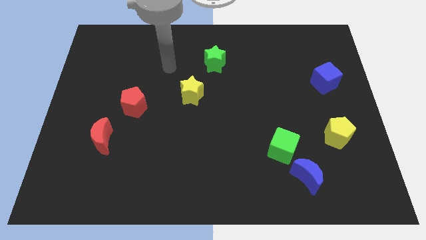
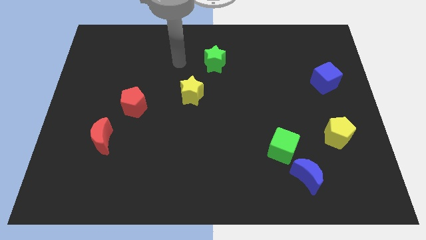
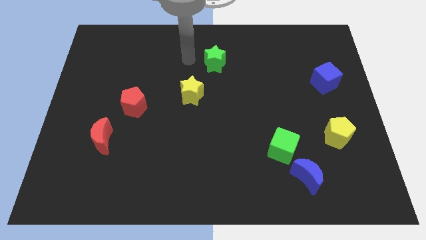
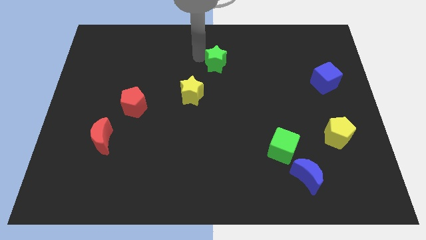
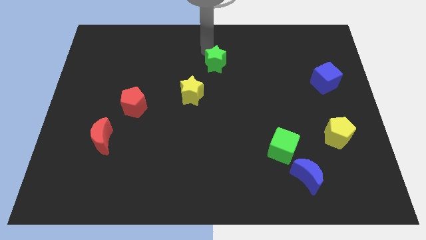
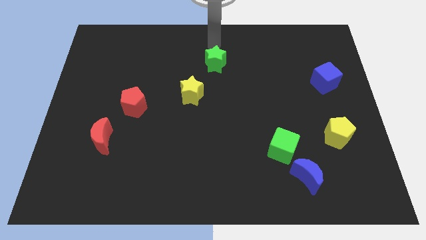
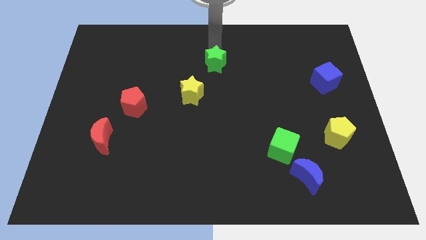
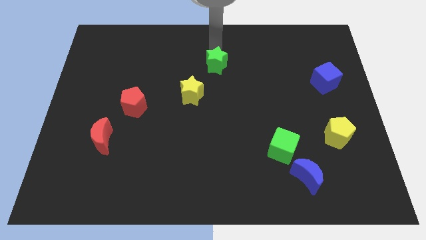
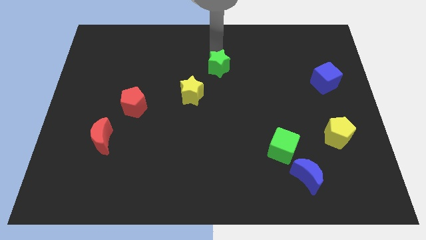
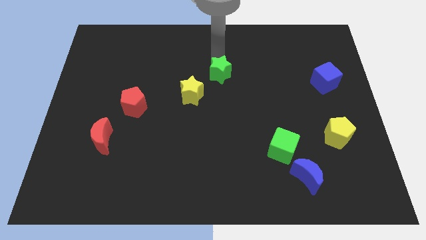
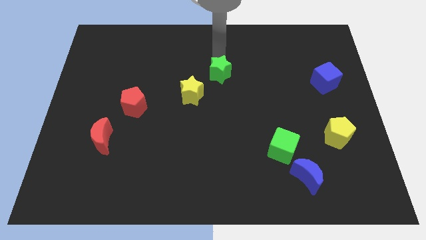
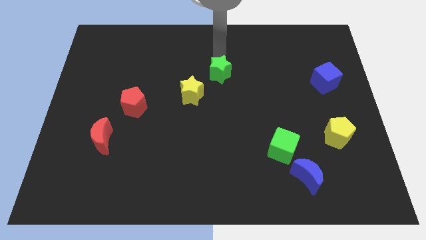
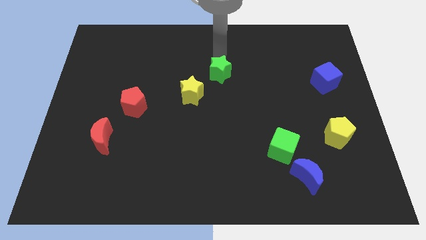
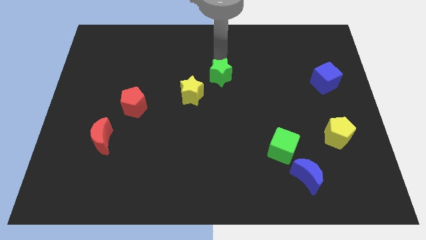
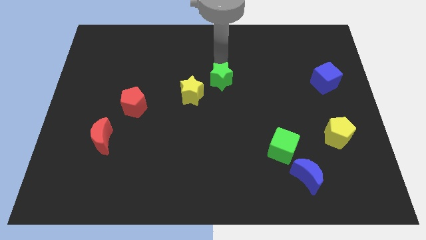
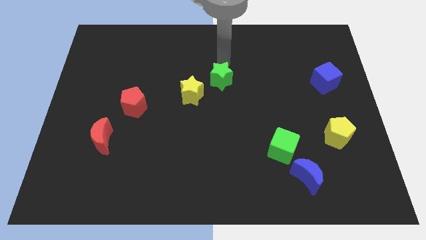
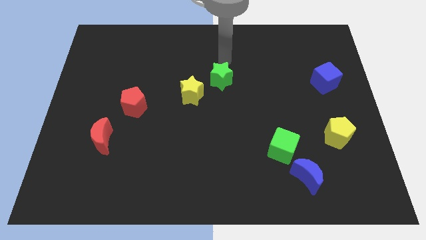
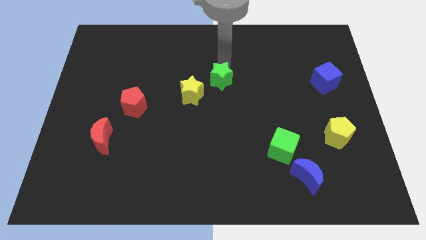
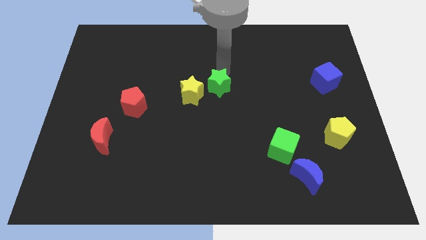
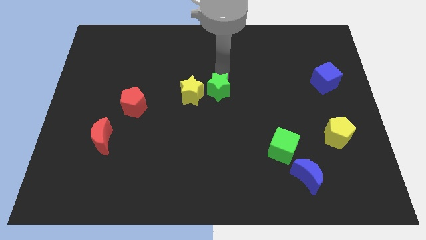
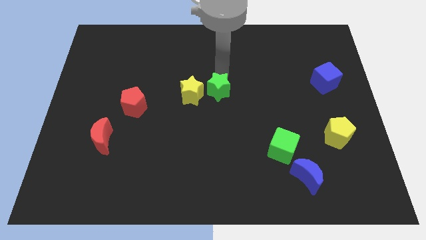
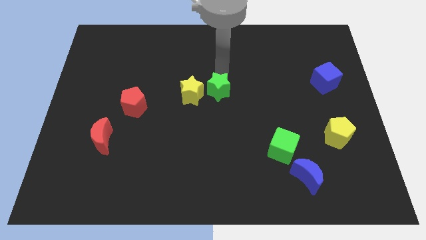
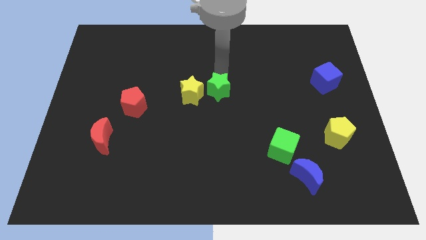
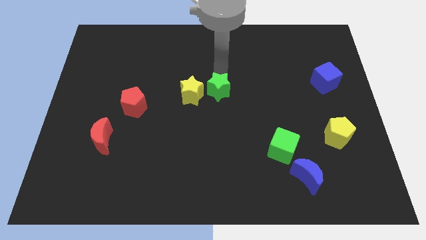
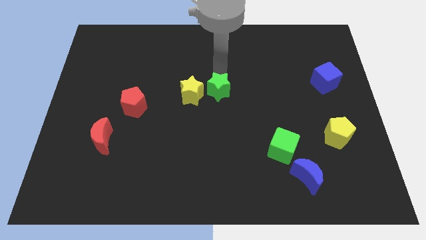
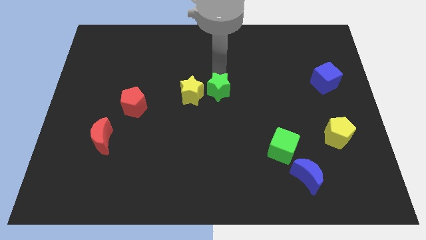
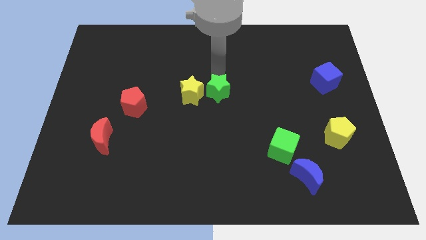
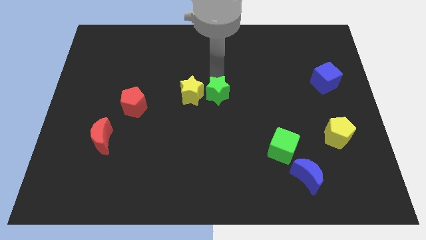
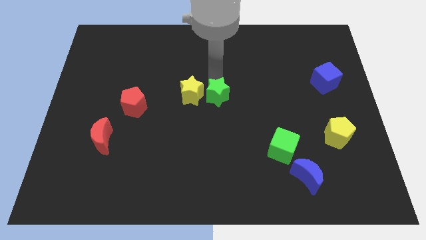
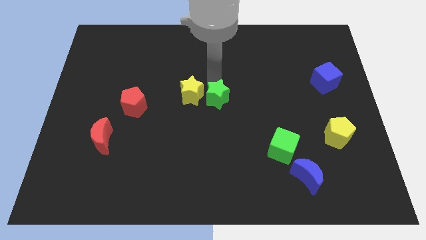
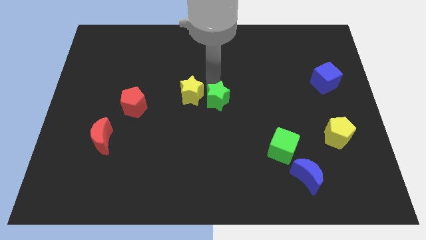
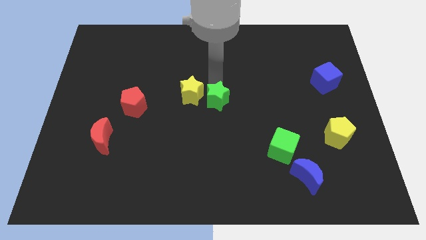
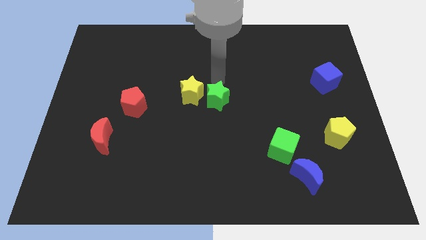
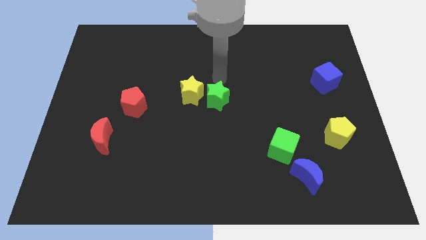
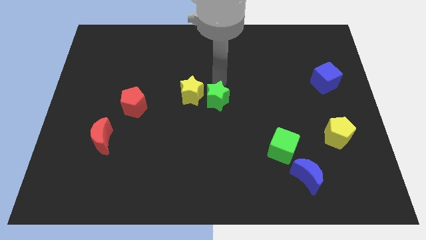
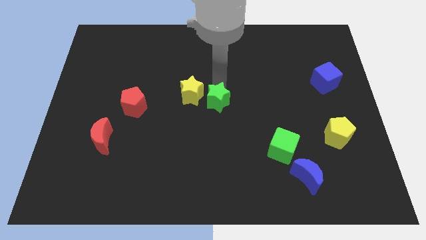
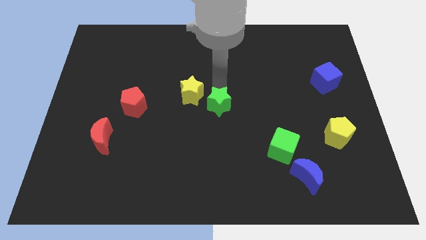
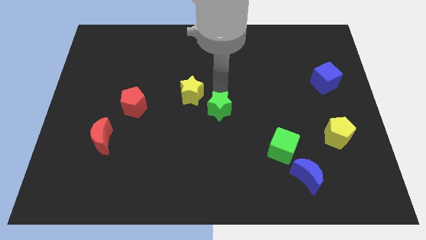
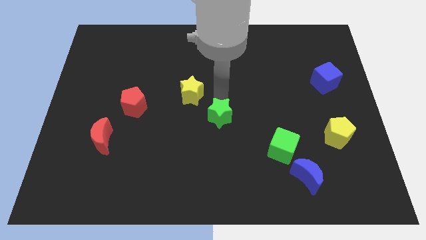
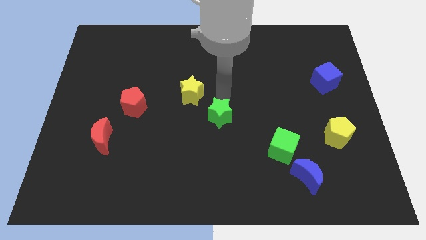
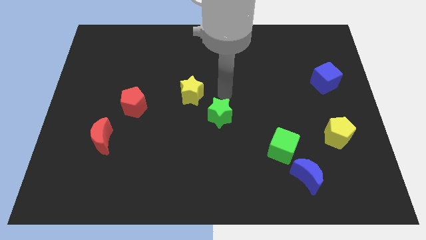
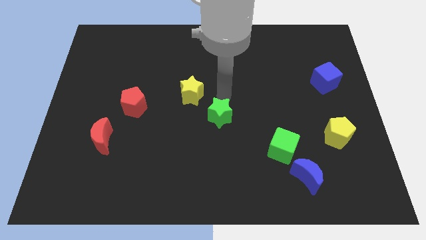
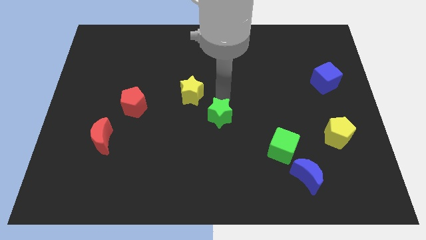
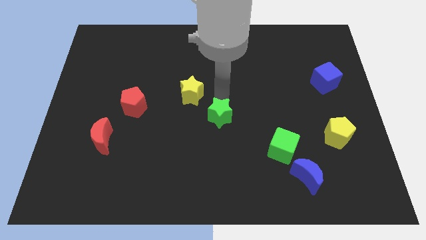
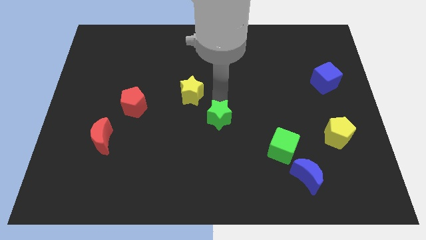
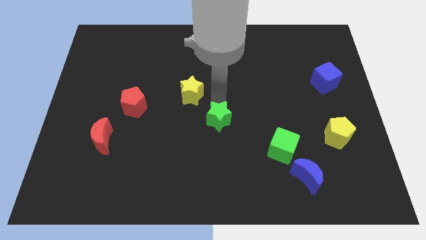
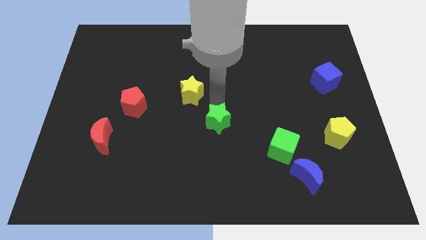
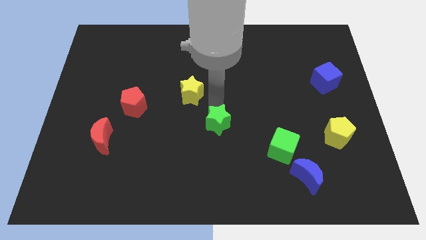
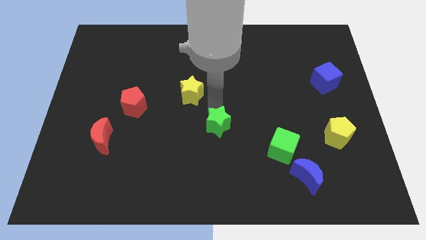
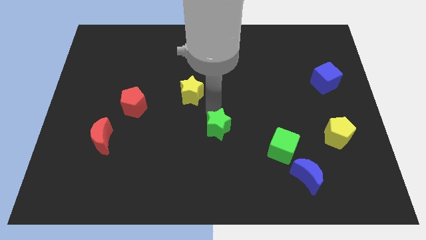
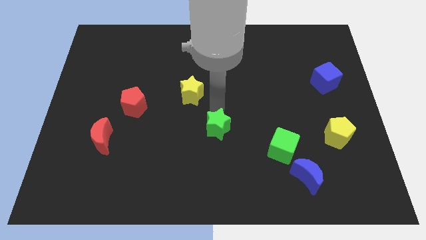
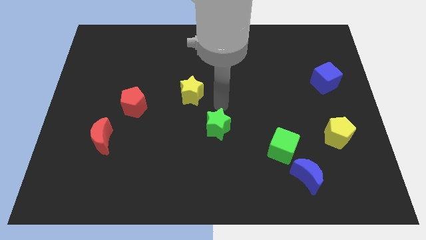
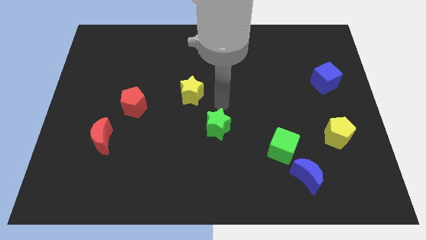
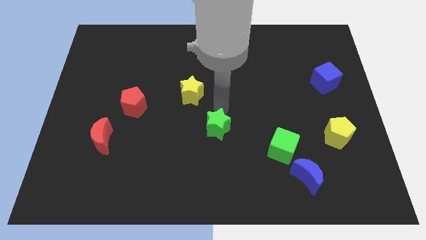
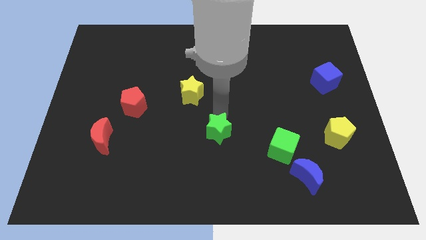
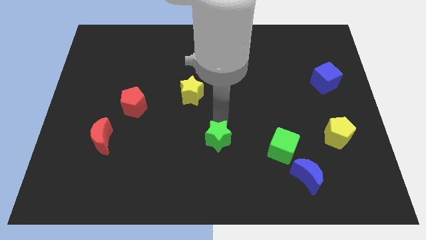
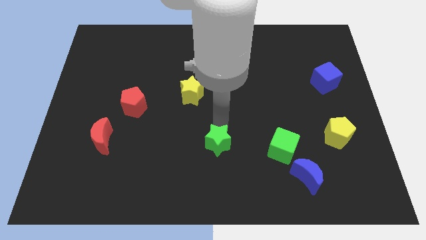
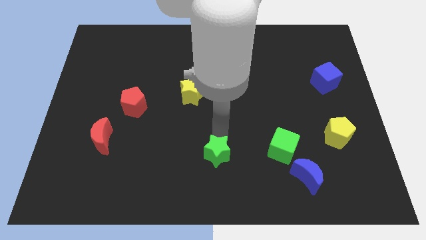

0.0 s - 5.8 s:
move the green star to the bottom side
